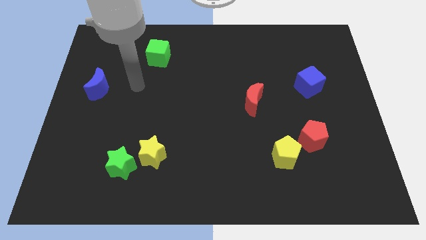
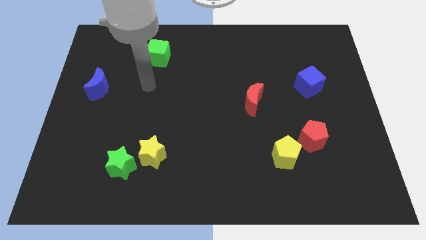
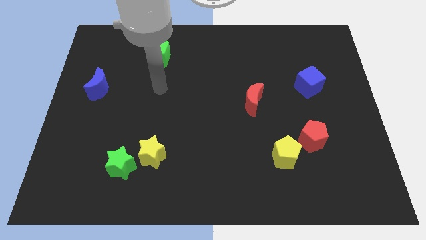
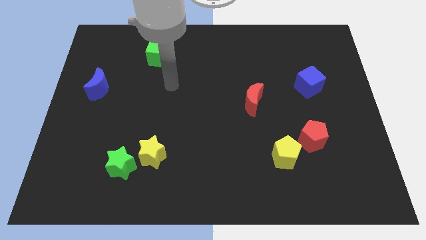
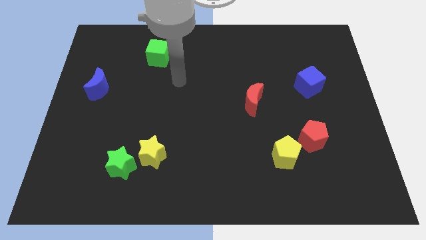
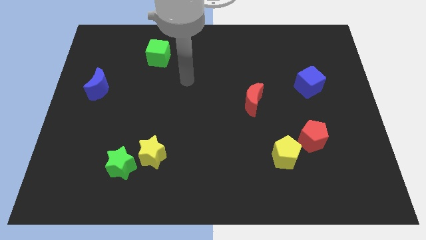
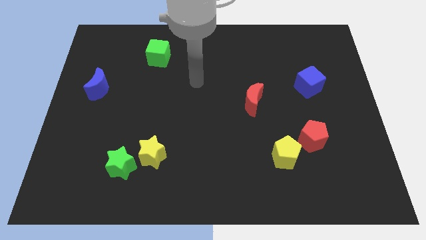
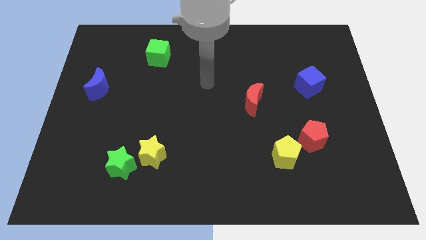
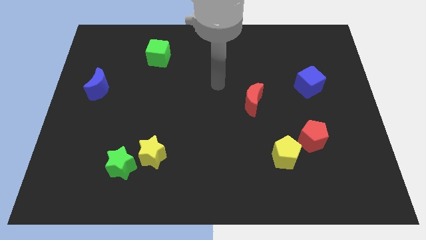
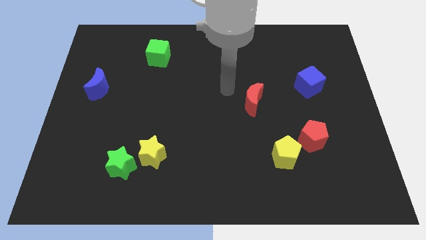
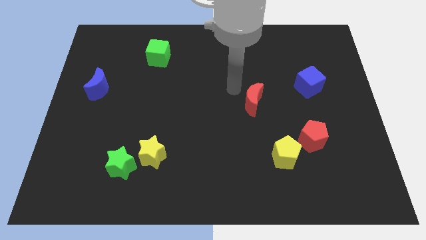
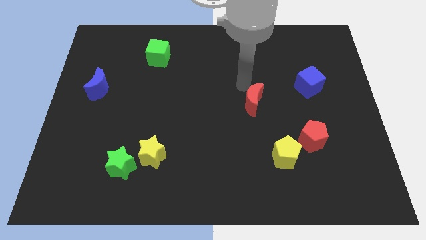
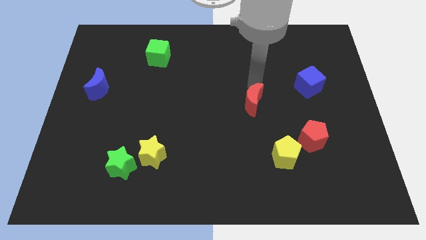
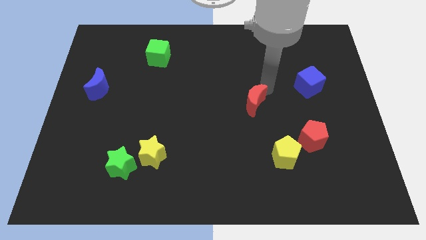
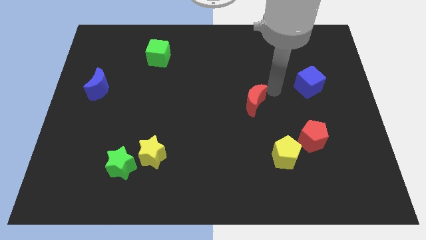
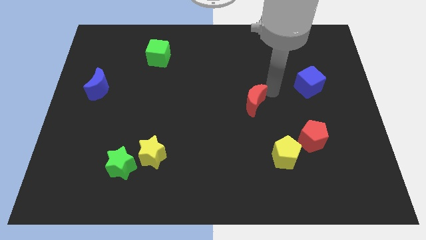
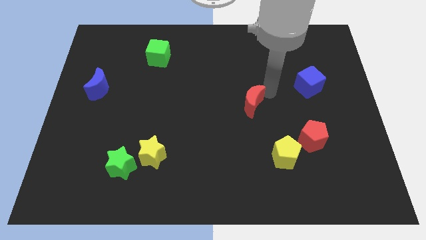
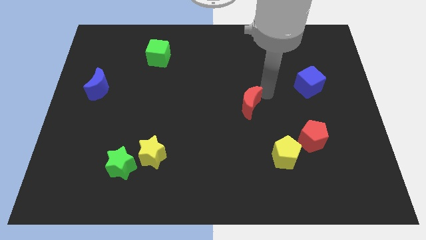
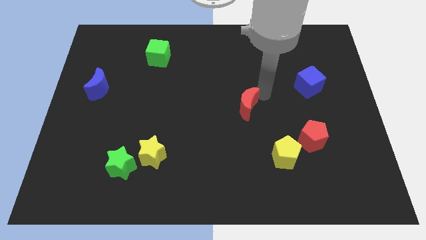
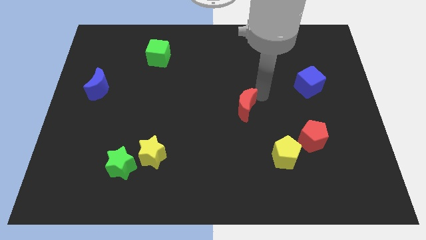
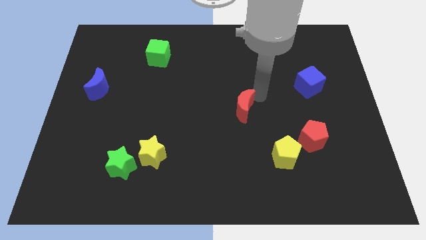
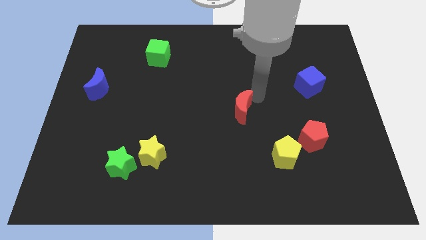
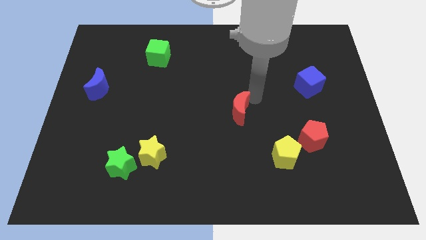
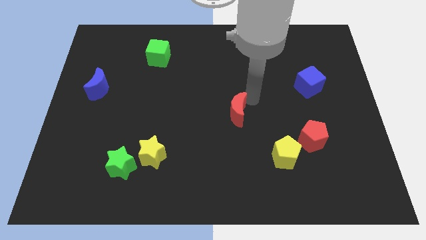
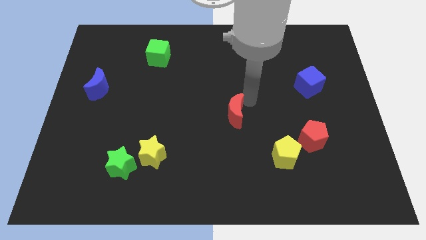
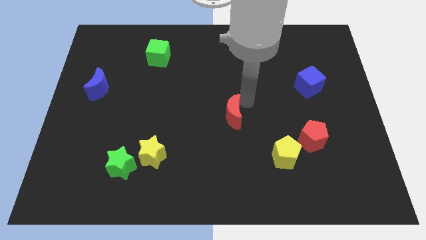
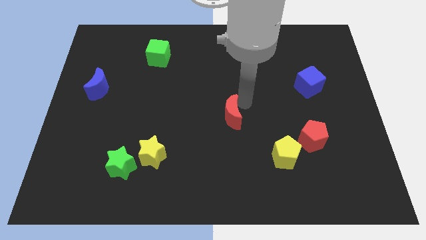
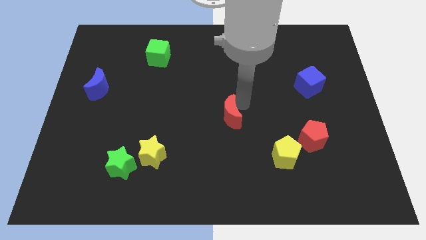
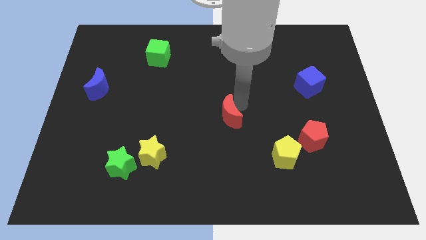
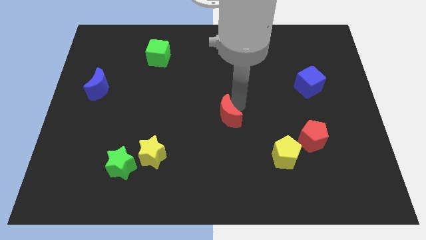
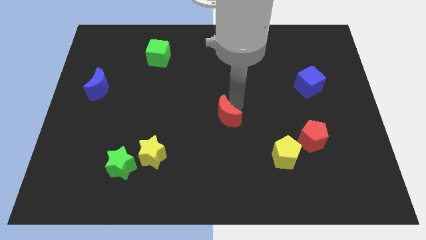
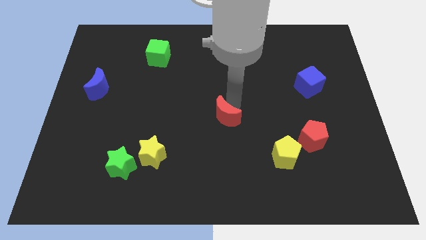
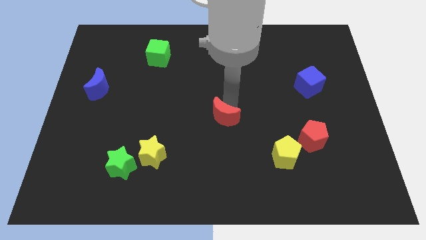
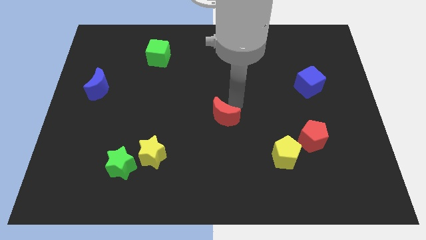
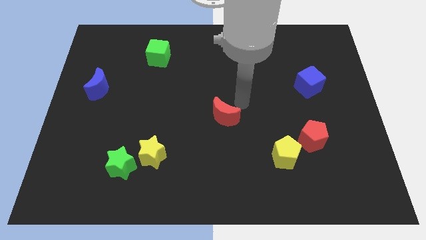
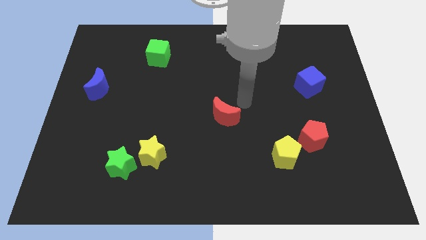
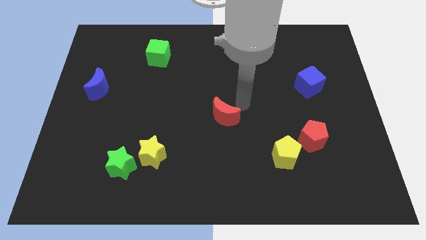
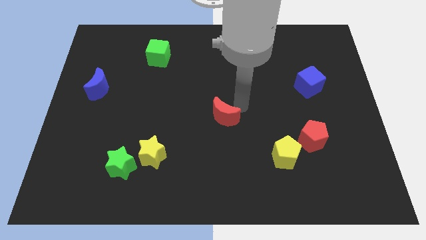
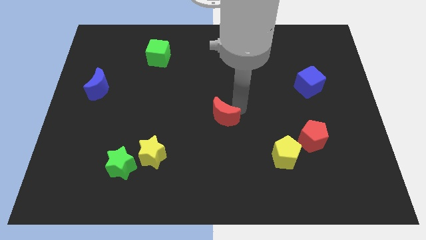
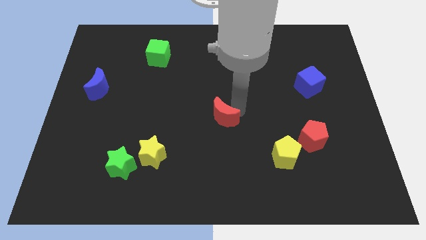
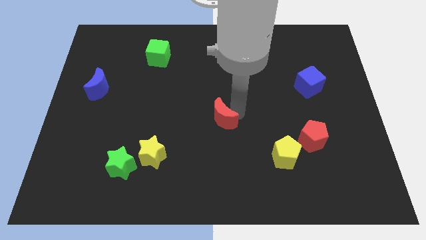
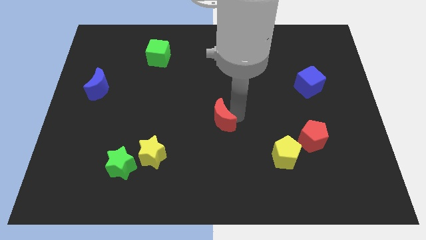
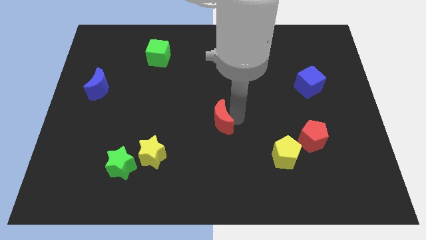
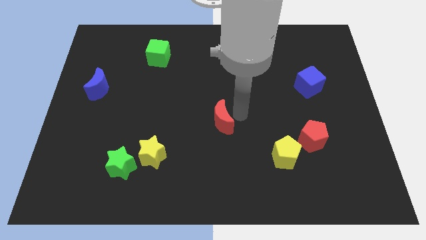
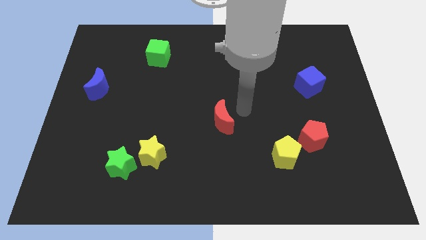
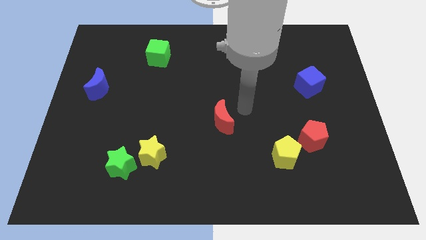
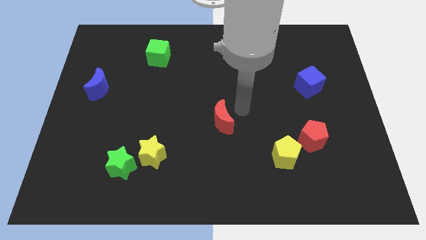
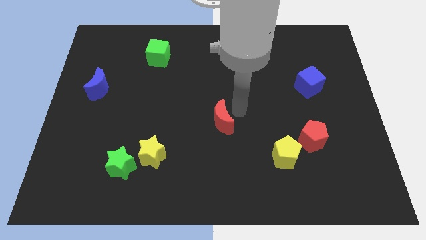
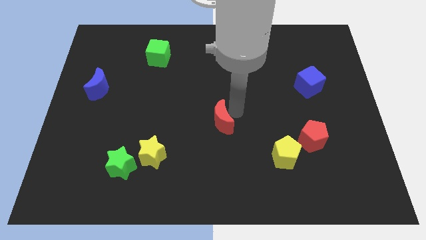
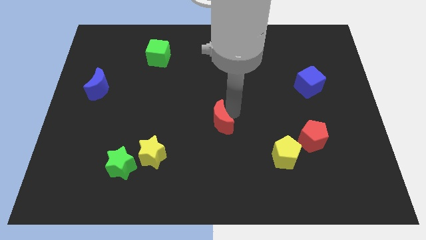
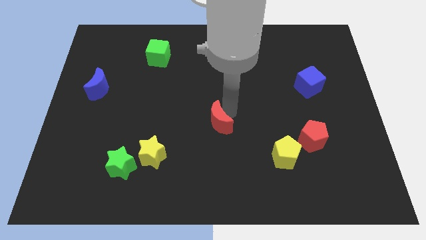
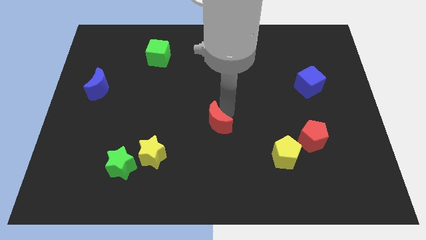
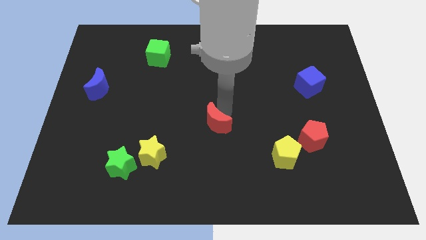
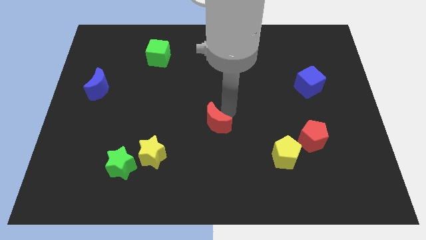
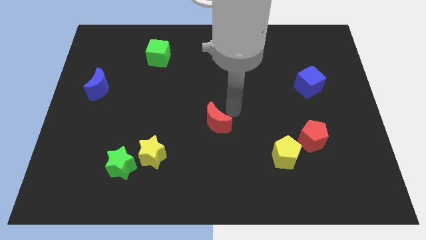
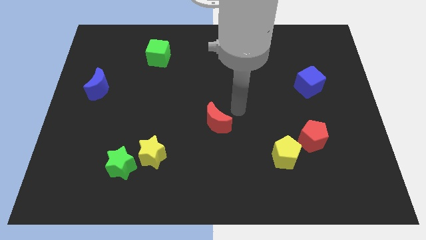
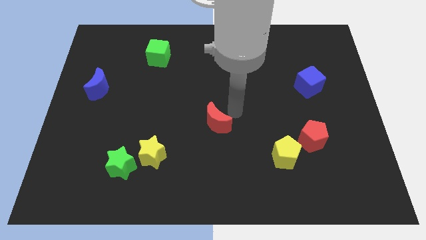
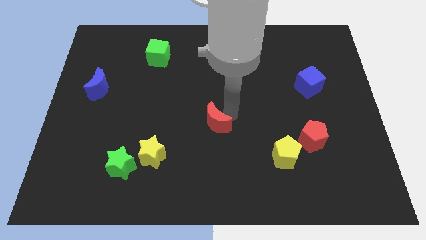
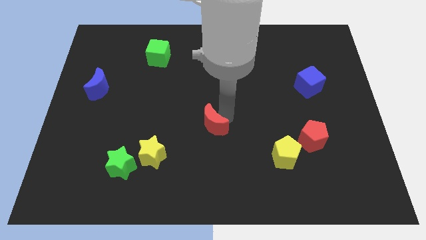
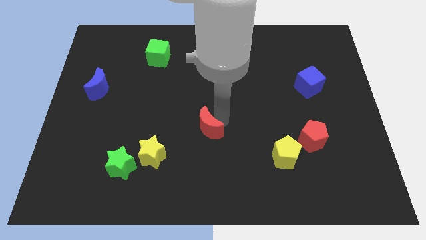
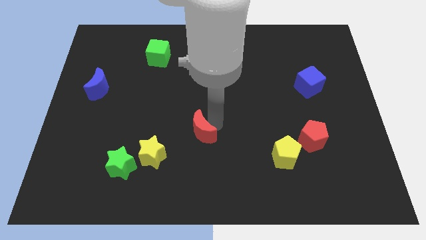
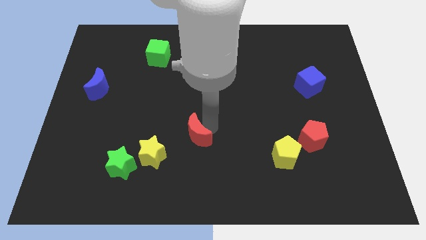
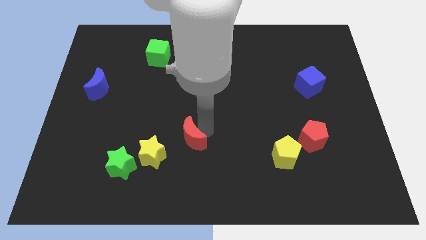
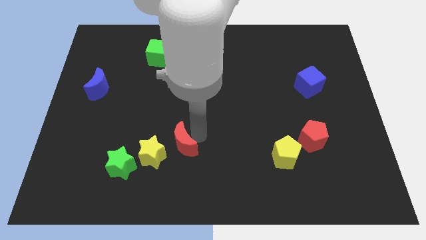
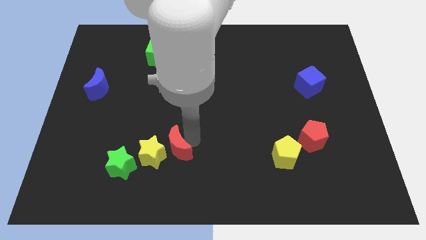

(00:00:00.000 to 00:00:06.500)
put the red moon towards the yellow star
